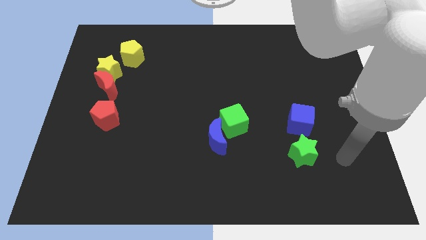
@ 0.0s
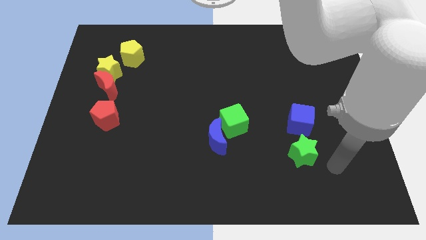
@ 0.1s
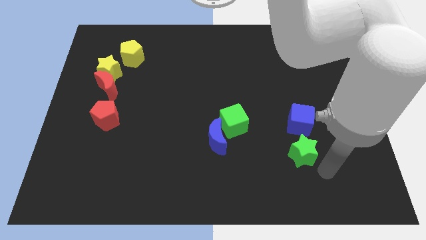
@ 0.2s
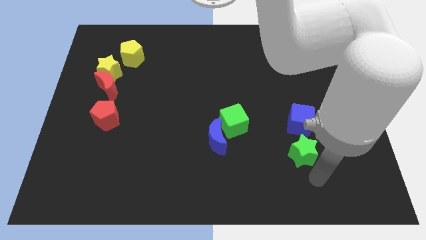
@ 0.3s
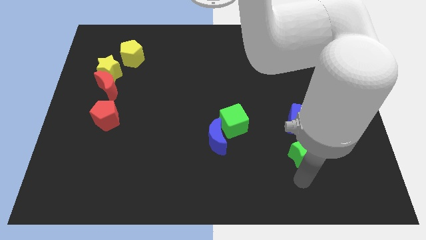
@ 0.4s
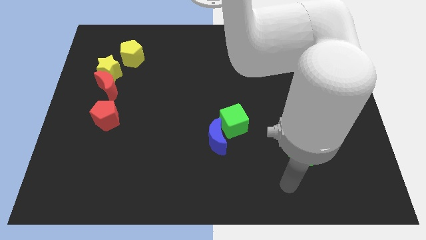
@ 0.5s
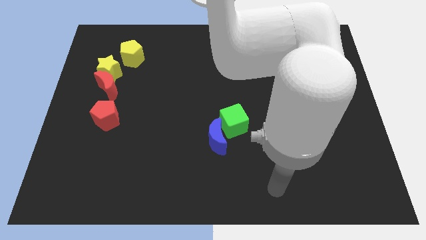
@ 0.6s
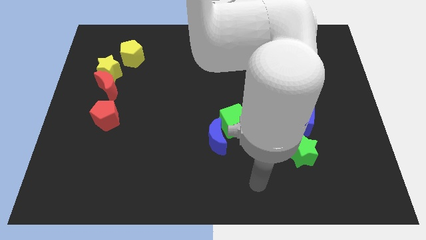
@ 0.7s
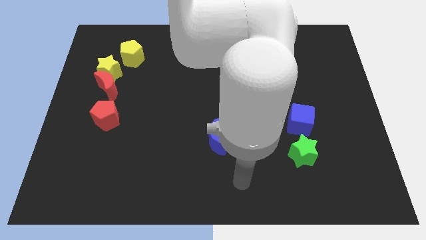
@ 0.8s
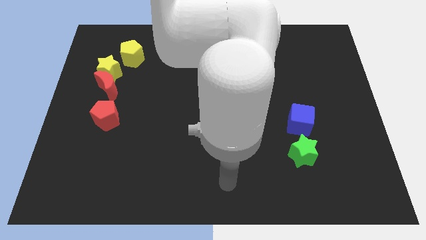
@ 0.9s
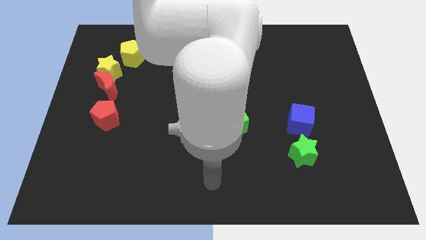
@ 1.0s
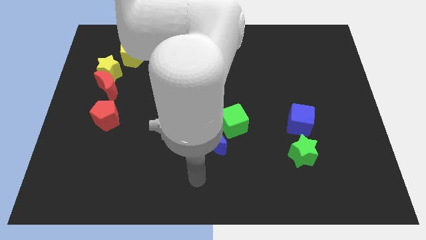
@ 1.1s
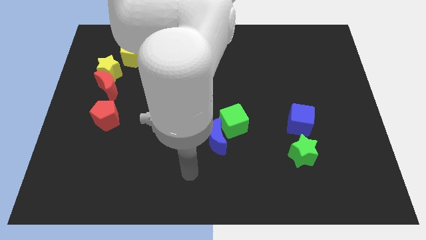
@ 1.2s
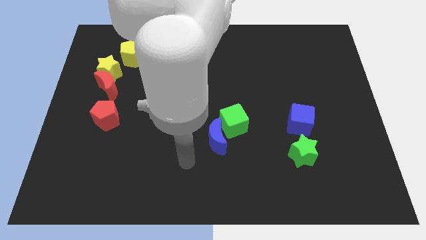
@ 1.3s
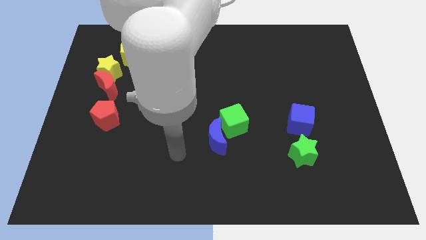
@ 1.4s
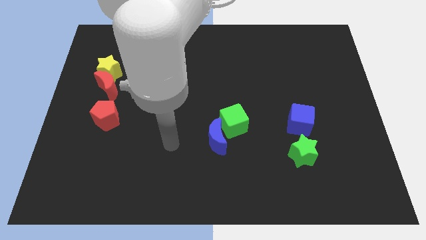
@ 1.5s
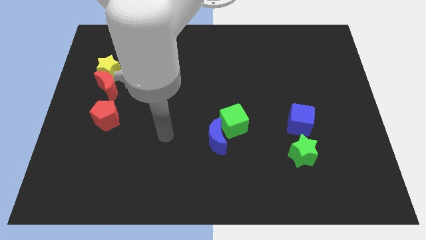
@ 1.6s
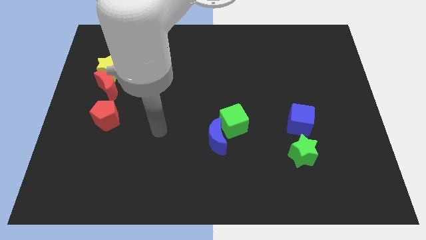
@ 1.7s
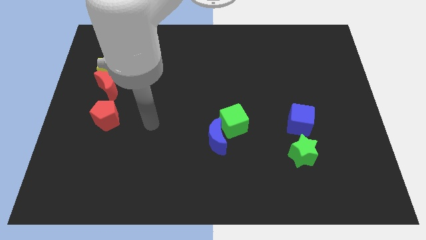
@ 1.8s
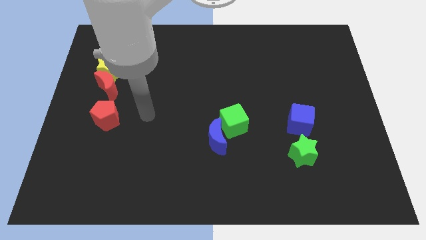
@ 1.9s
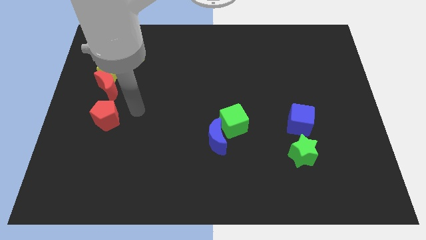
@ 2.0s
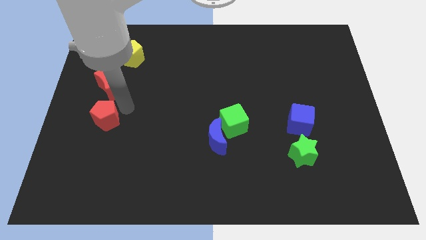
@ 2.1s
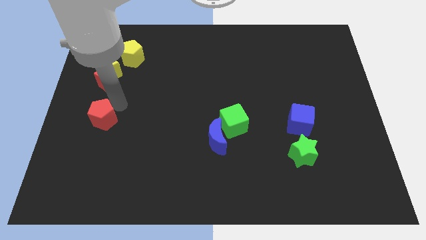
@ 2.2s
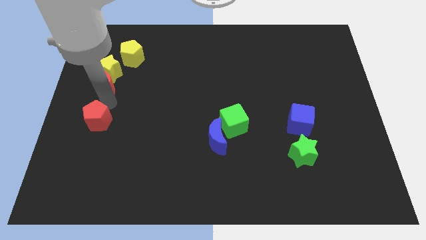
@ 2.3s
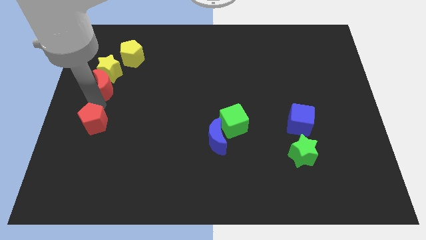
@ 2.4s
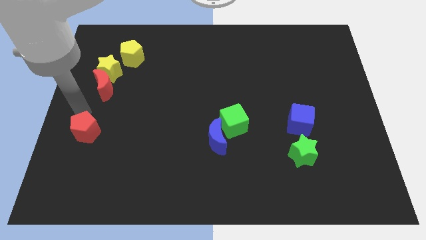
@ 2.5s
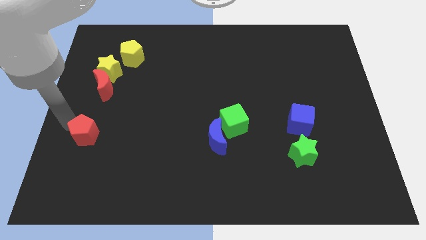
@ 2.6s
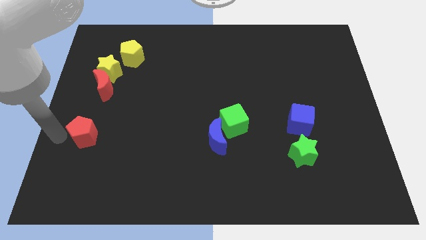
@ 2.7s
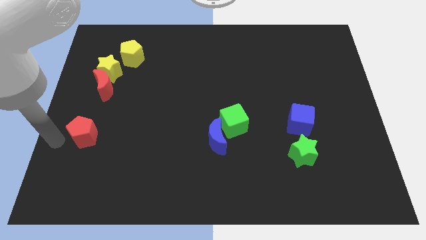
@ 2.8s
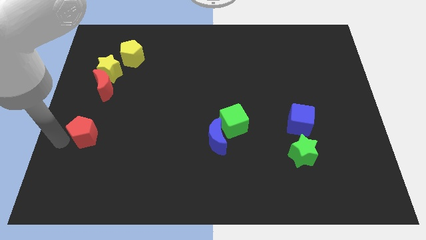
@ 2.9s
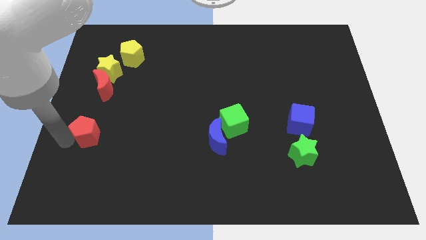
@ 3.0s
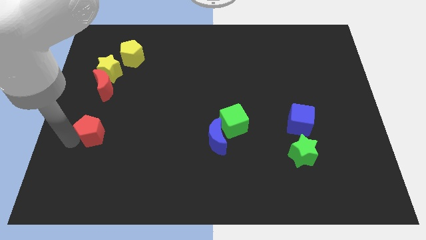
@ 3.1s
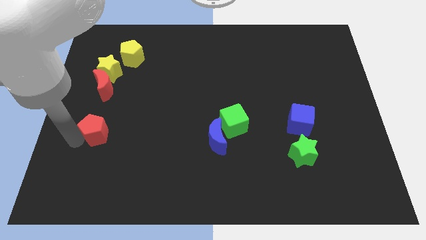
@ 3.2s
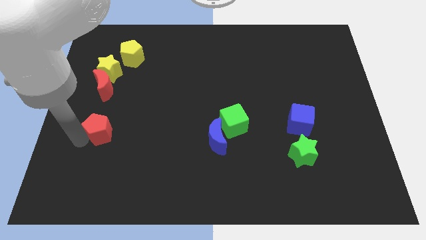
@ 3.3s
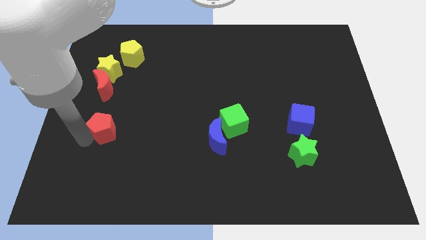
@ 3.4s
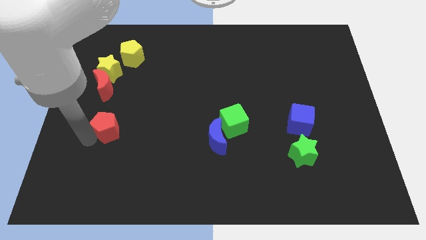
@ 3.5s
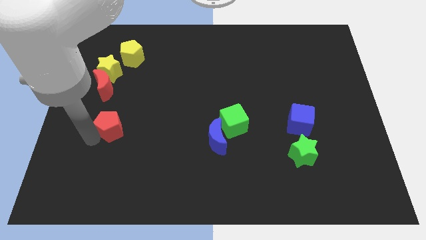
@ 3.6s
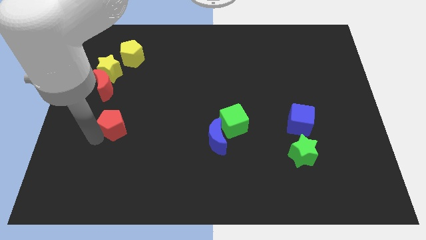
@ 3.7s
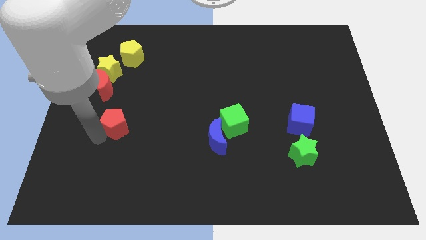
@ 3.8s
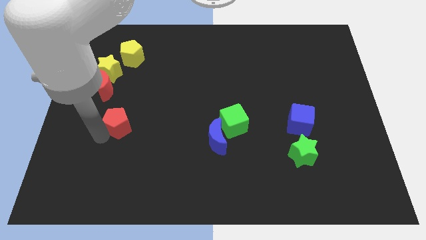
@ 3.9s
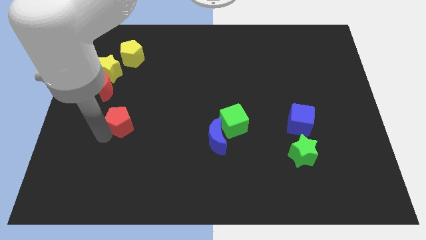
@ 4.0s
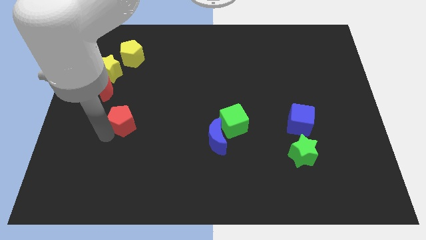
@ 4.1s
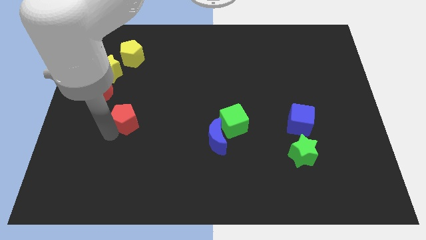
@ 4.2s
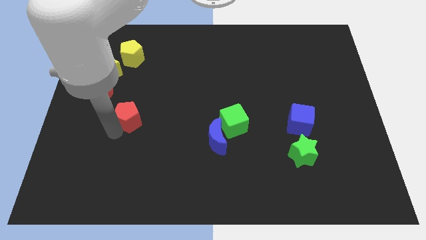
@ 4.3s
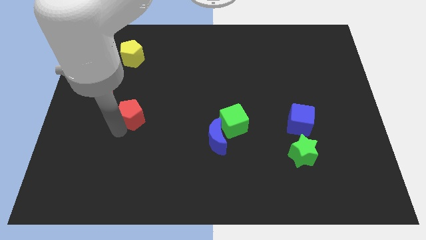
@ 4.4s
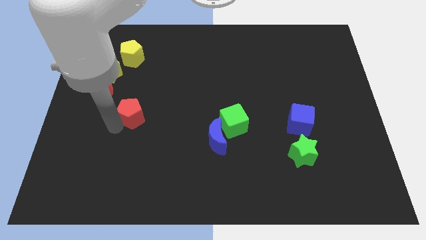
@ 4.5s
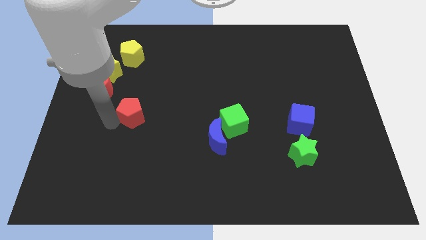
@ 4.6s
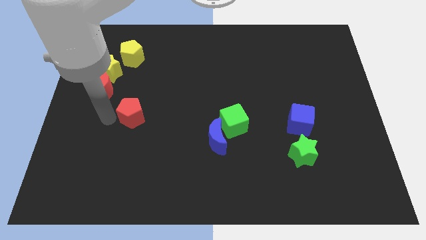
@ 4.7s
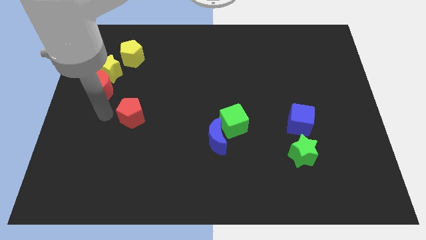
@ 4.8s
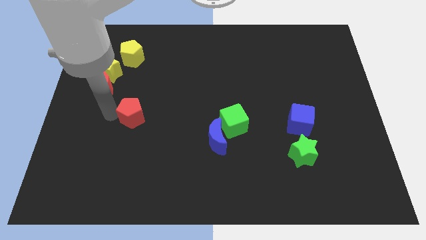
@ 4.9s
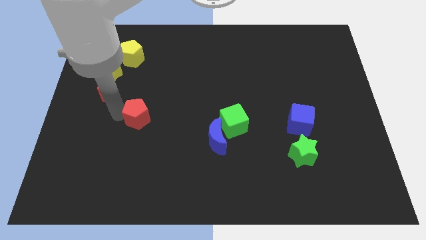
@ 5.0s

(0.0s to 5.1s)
slide the red pentagon a little bit right

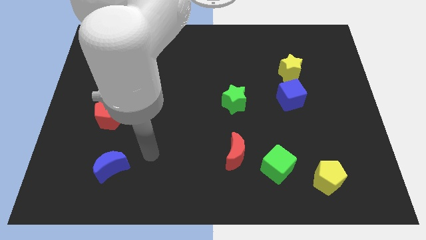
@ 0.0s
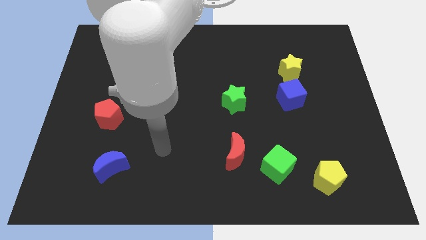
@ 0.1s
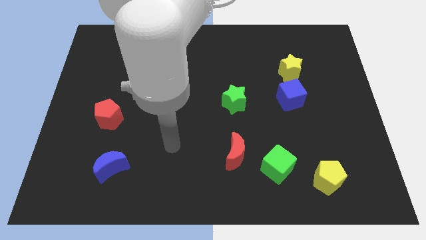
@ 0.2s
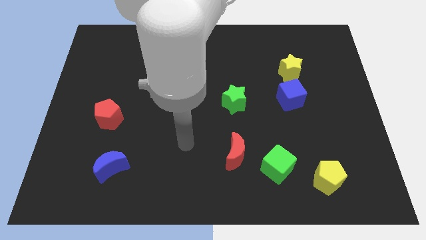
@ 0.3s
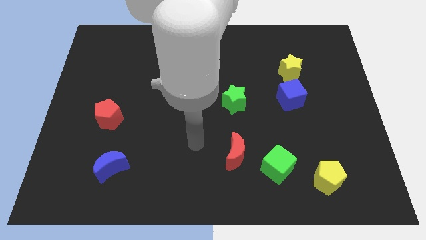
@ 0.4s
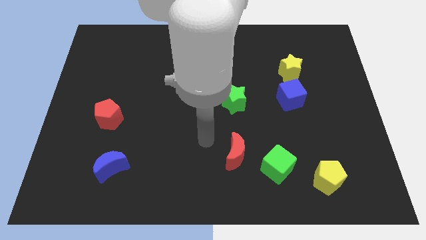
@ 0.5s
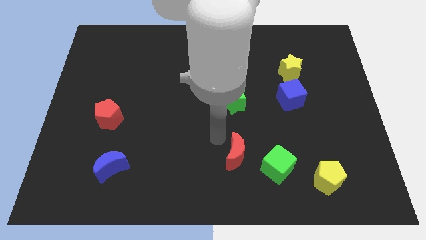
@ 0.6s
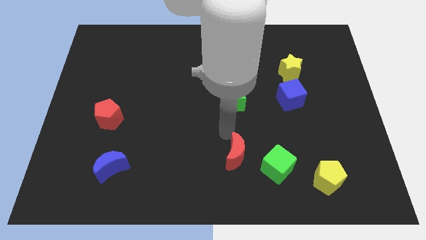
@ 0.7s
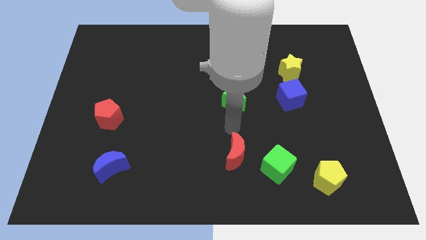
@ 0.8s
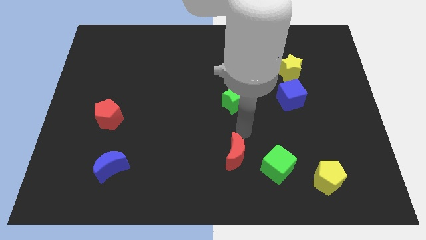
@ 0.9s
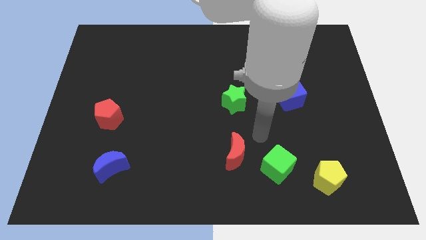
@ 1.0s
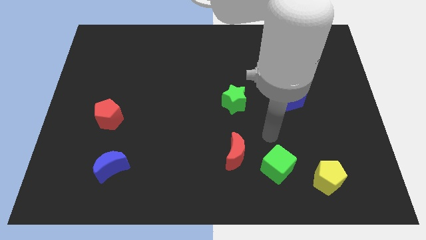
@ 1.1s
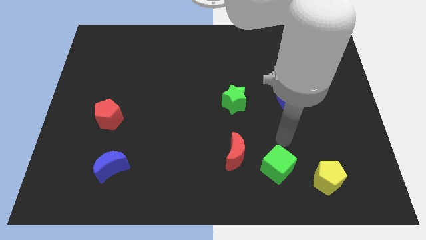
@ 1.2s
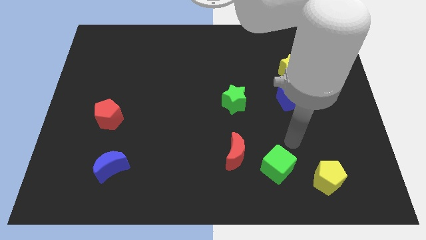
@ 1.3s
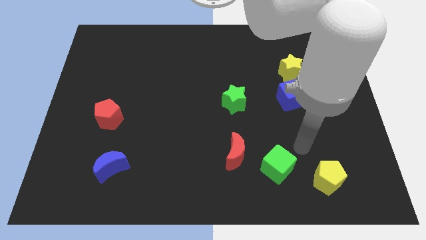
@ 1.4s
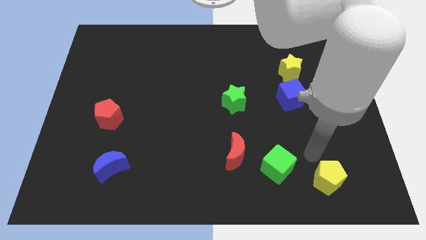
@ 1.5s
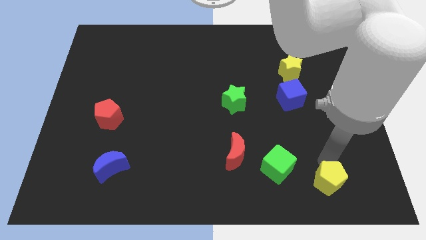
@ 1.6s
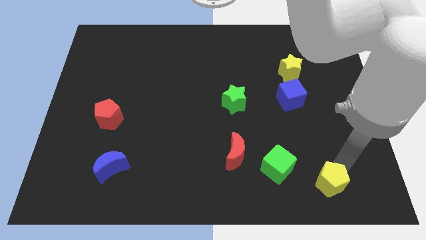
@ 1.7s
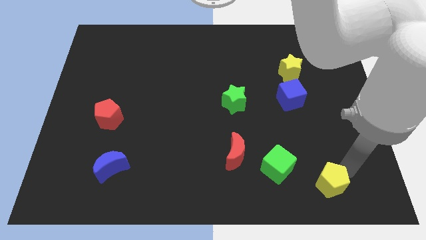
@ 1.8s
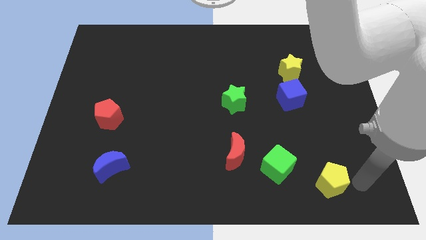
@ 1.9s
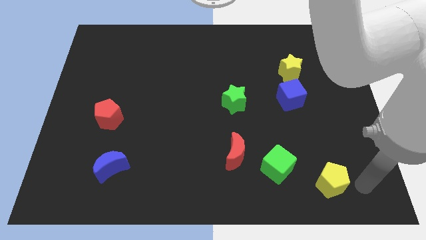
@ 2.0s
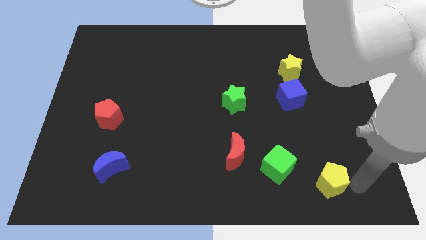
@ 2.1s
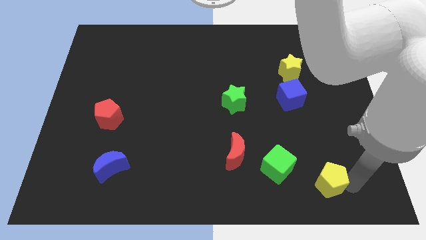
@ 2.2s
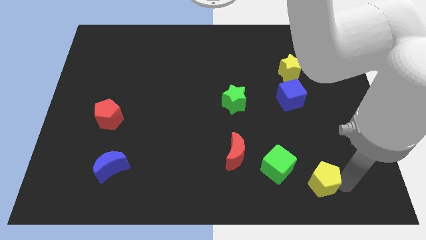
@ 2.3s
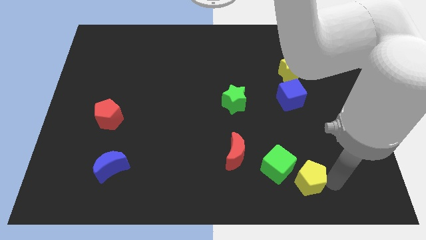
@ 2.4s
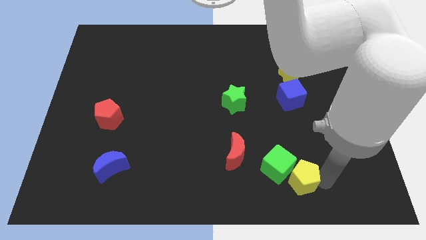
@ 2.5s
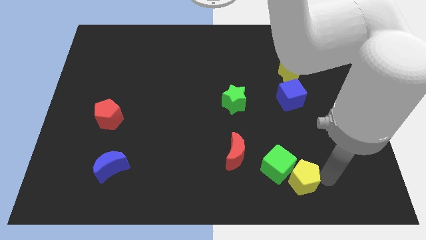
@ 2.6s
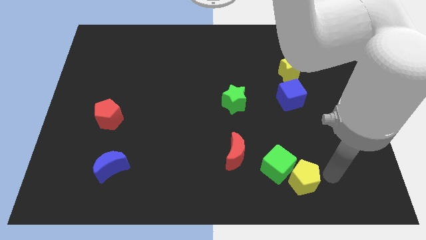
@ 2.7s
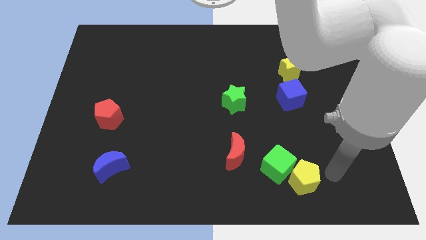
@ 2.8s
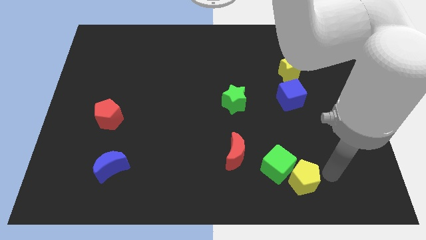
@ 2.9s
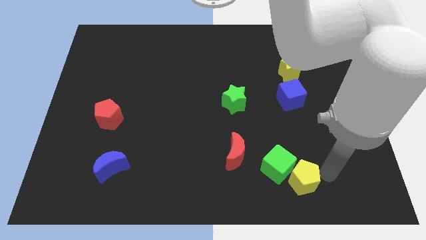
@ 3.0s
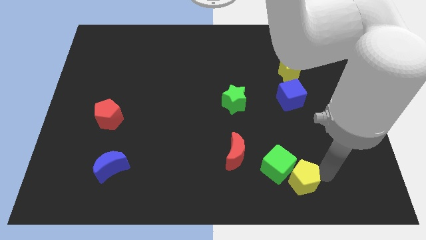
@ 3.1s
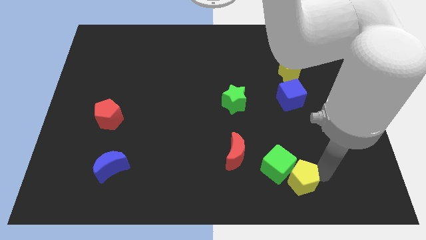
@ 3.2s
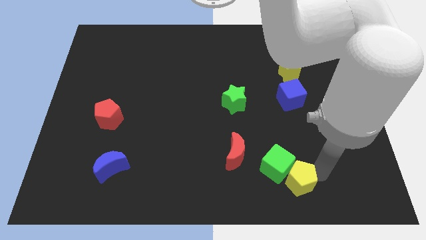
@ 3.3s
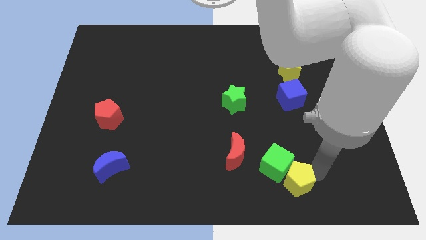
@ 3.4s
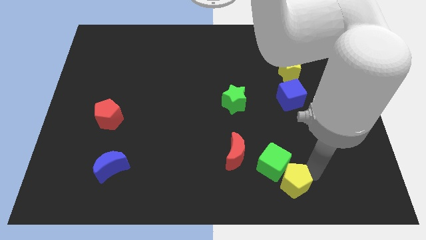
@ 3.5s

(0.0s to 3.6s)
push the yellow pentagon to the left slightly
